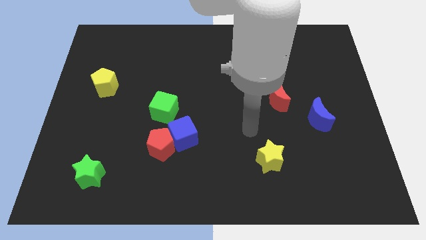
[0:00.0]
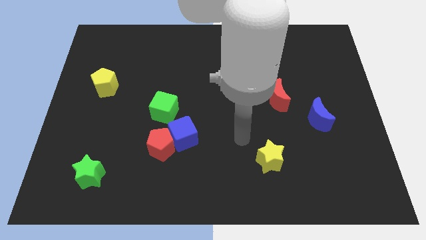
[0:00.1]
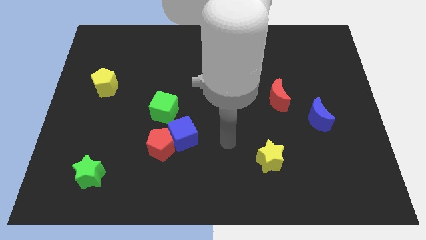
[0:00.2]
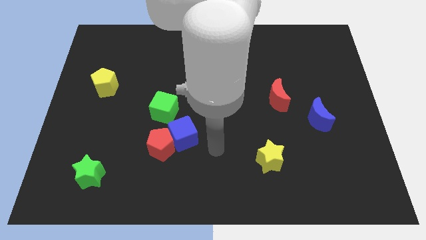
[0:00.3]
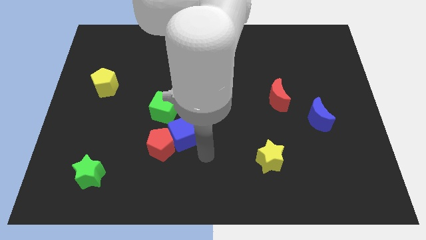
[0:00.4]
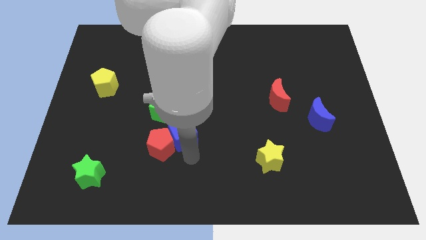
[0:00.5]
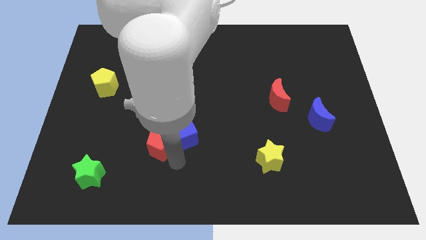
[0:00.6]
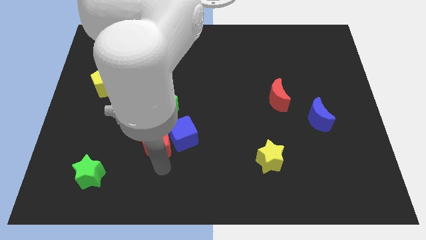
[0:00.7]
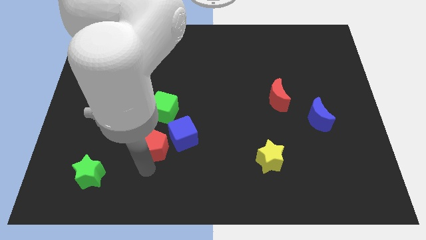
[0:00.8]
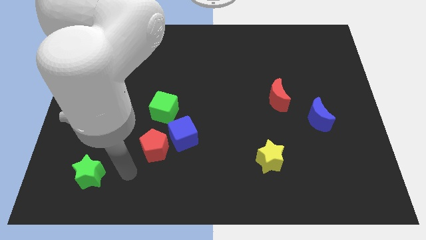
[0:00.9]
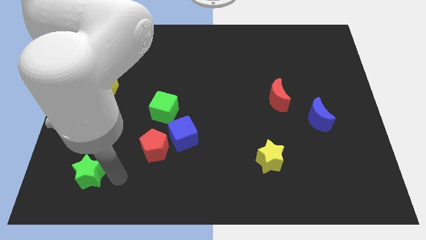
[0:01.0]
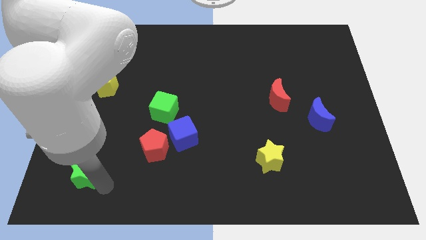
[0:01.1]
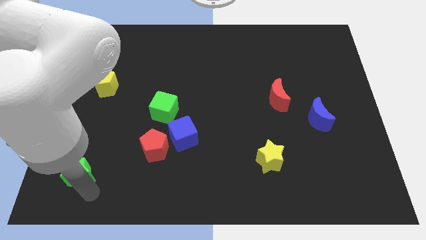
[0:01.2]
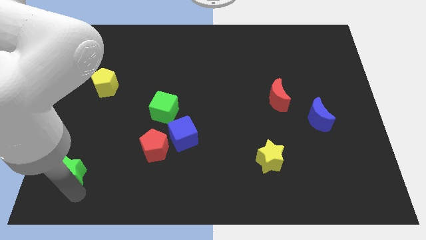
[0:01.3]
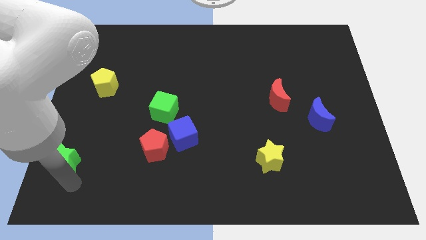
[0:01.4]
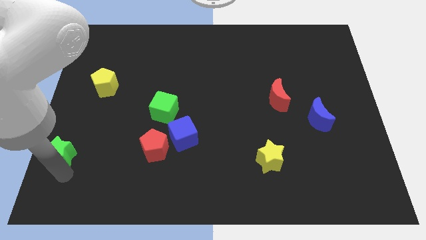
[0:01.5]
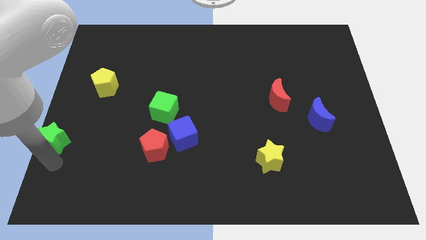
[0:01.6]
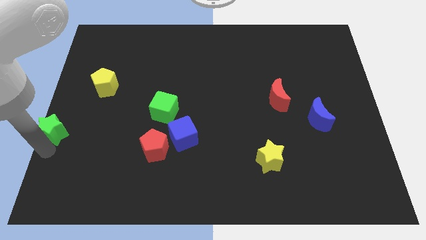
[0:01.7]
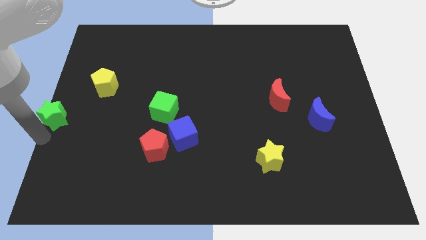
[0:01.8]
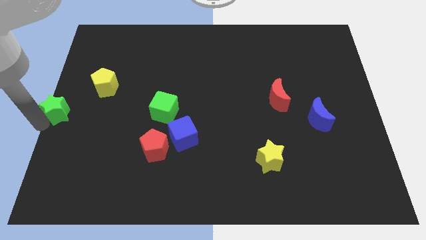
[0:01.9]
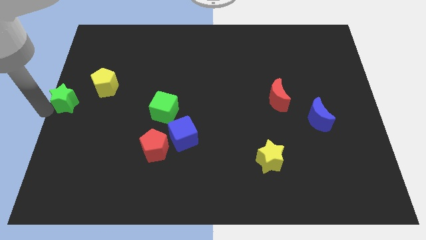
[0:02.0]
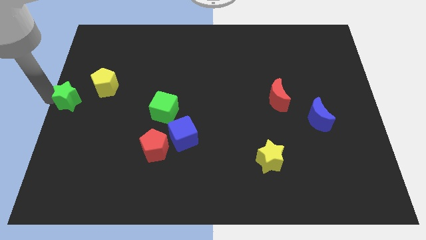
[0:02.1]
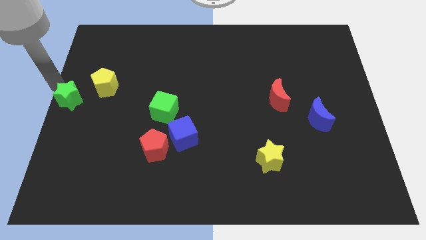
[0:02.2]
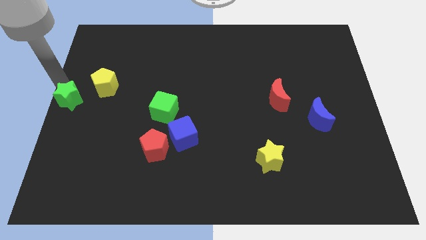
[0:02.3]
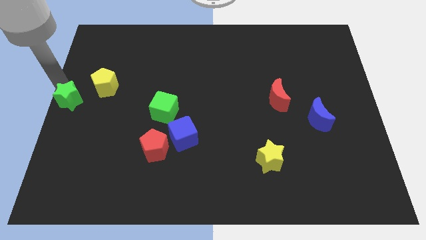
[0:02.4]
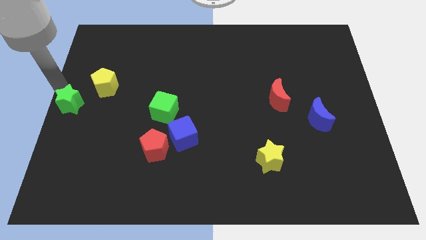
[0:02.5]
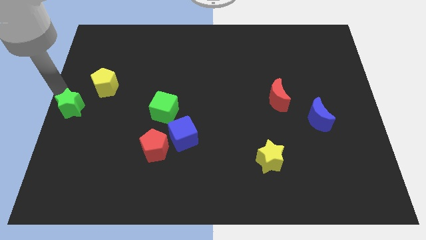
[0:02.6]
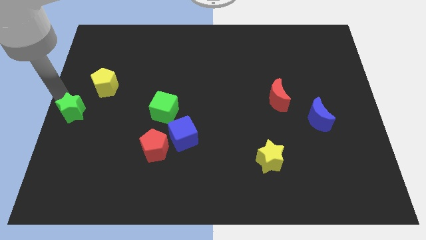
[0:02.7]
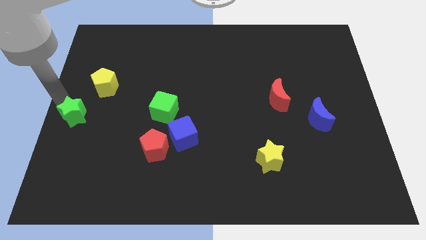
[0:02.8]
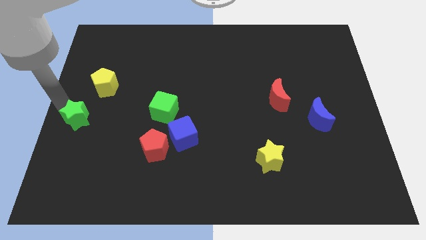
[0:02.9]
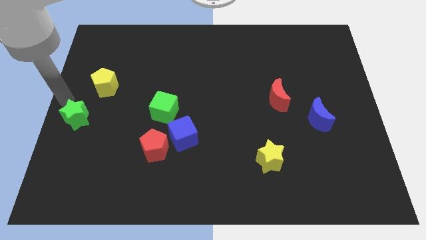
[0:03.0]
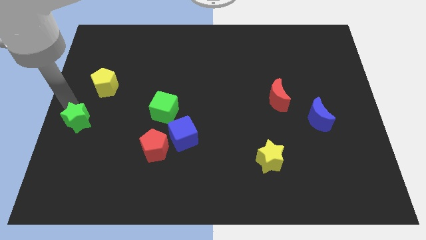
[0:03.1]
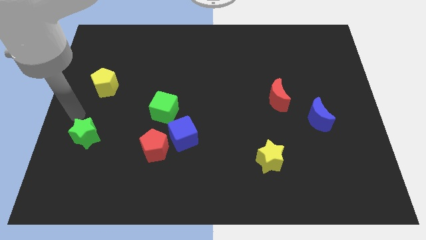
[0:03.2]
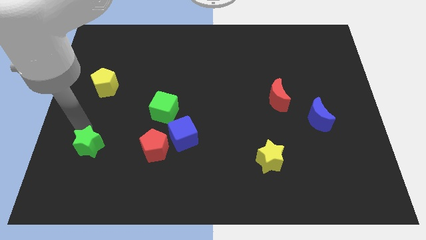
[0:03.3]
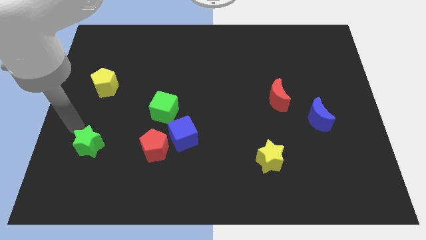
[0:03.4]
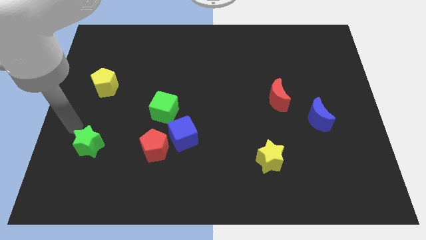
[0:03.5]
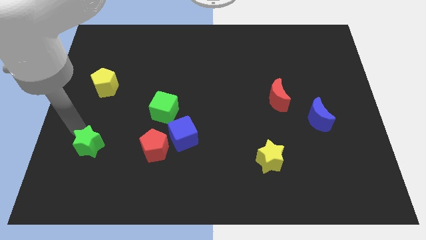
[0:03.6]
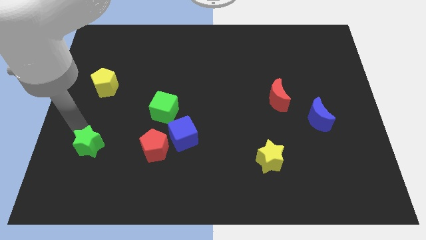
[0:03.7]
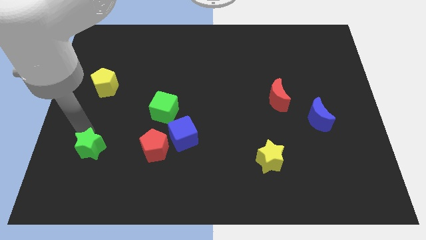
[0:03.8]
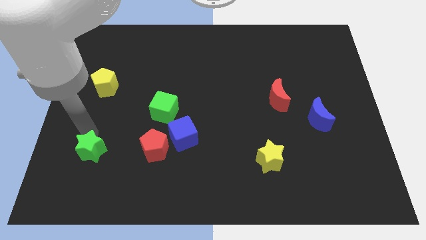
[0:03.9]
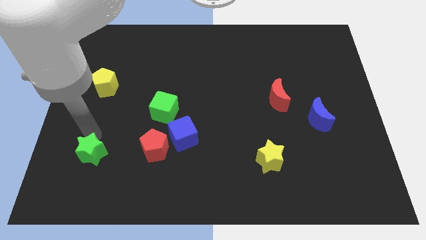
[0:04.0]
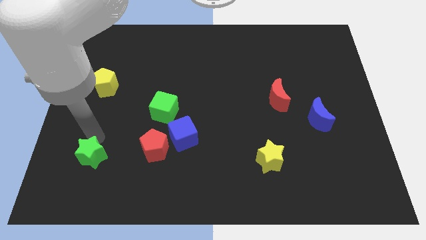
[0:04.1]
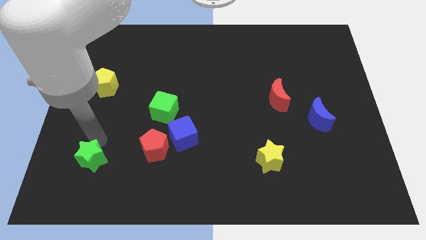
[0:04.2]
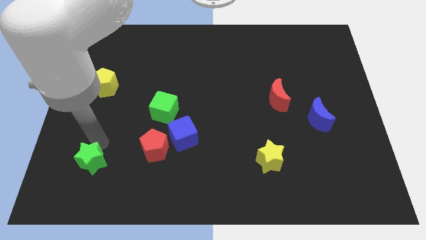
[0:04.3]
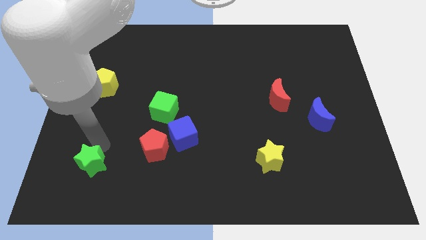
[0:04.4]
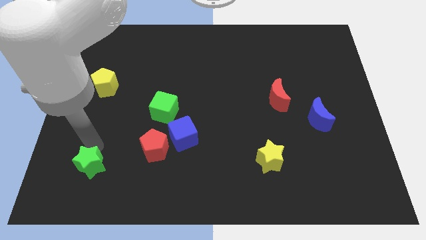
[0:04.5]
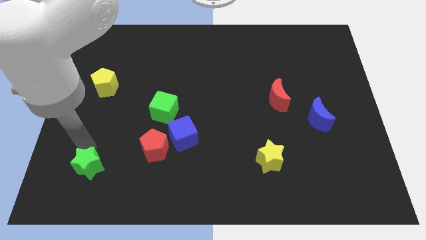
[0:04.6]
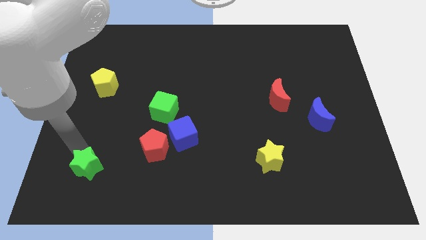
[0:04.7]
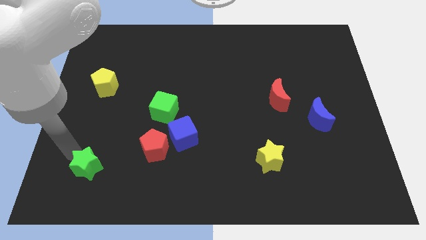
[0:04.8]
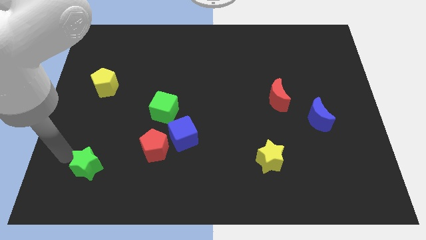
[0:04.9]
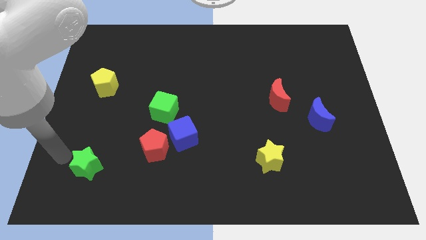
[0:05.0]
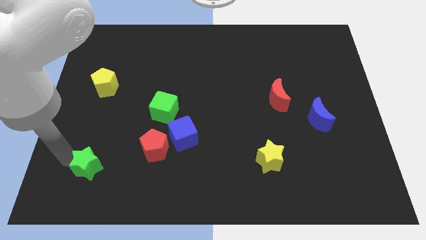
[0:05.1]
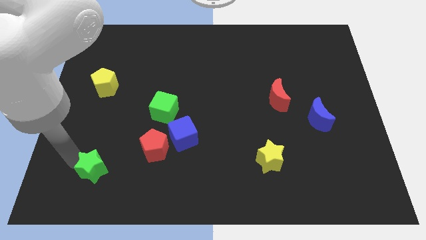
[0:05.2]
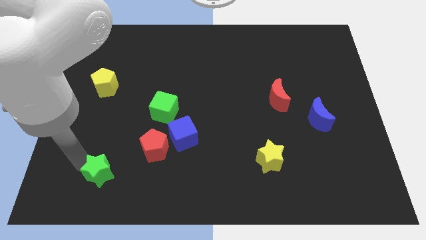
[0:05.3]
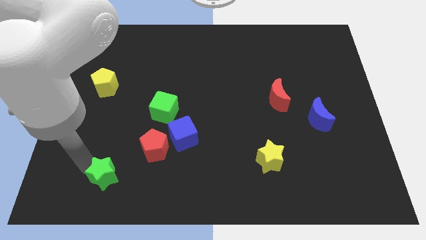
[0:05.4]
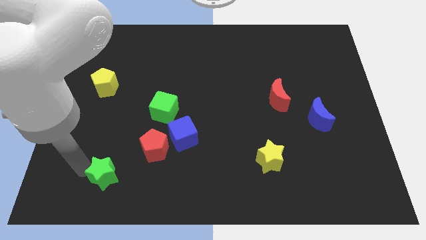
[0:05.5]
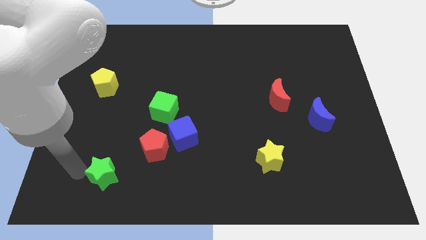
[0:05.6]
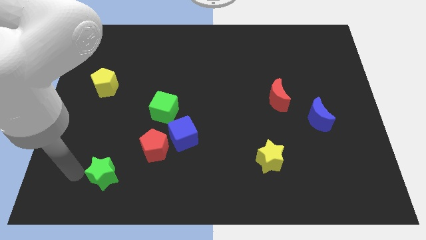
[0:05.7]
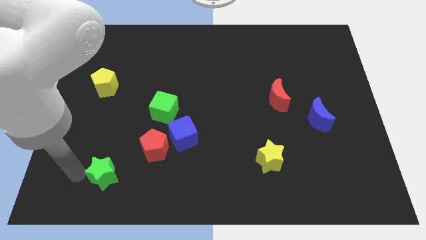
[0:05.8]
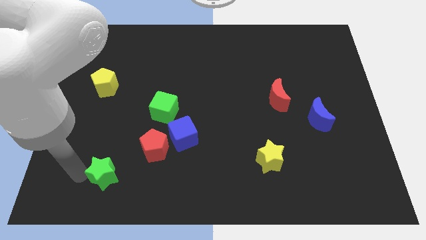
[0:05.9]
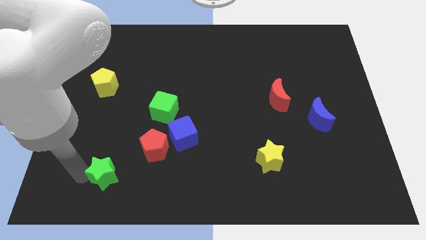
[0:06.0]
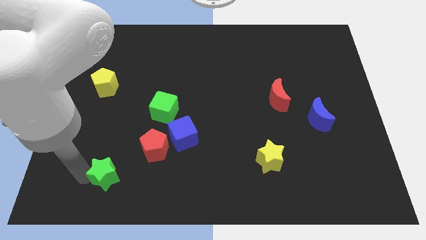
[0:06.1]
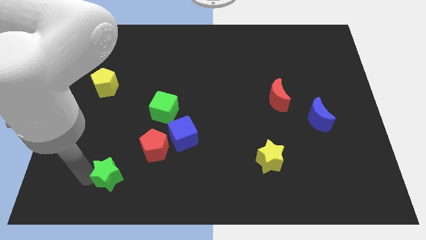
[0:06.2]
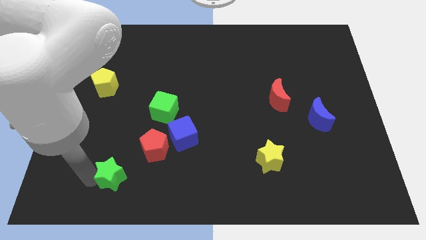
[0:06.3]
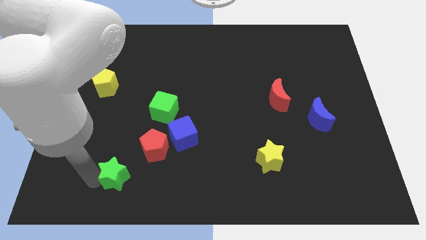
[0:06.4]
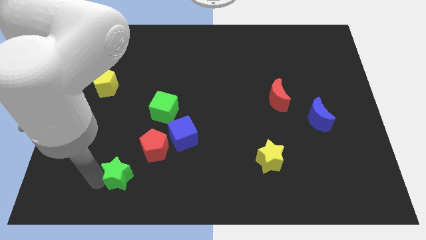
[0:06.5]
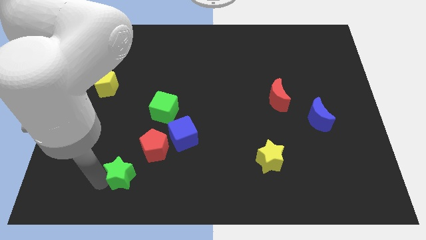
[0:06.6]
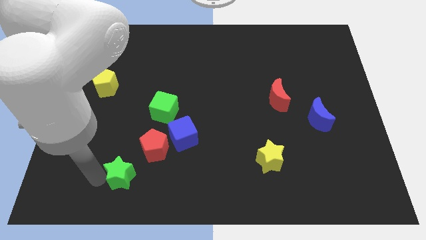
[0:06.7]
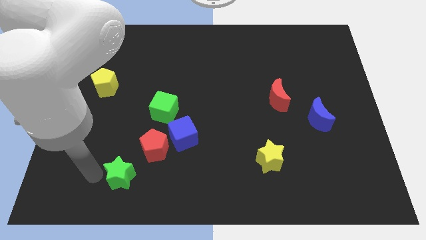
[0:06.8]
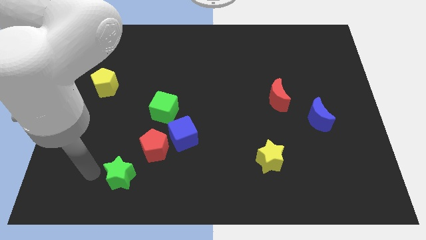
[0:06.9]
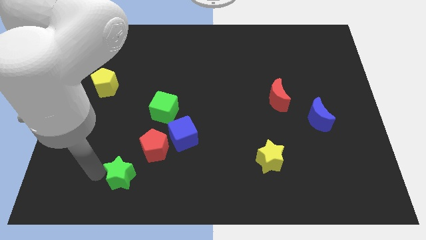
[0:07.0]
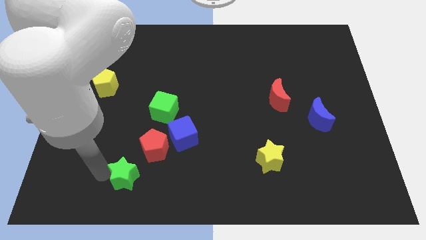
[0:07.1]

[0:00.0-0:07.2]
push the green star a bit right

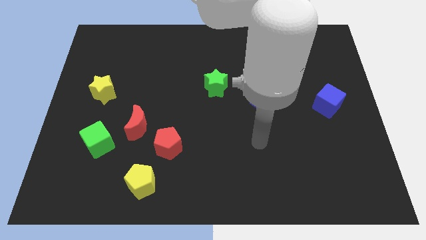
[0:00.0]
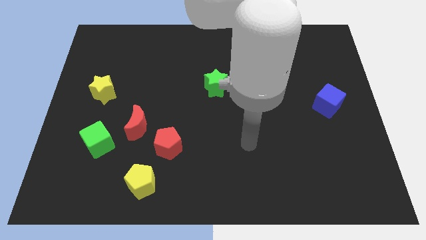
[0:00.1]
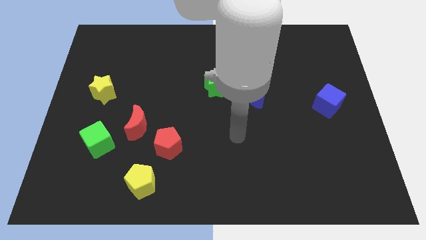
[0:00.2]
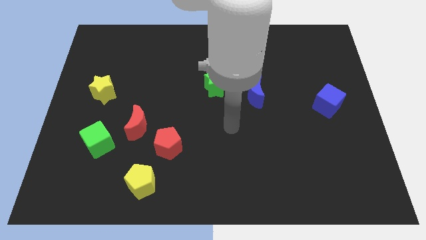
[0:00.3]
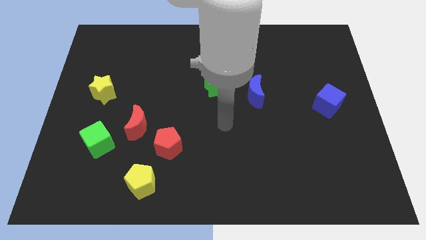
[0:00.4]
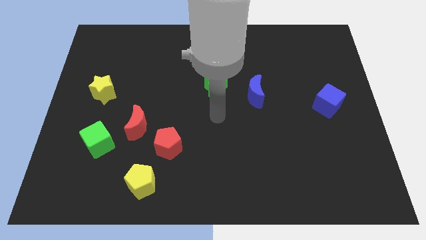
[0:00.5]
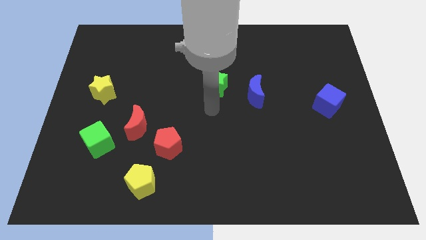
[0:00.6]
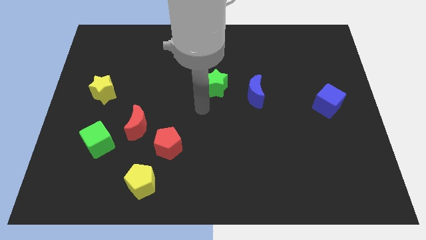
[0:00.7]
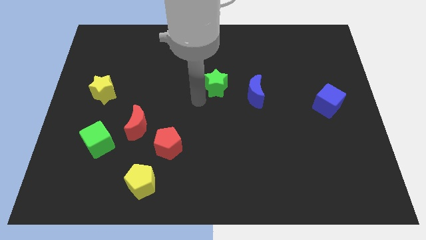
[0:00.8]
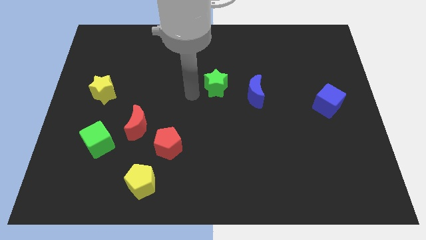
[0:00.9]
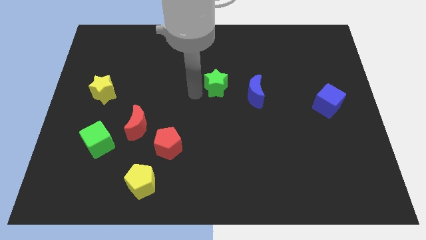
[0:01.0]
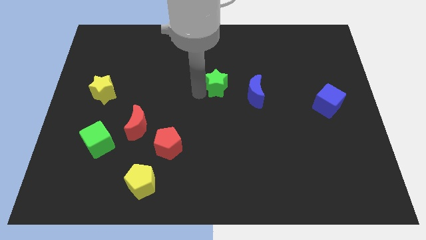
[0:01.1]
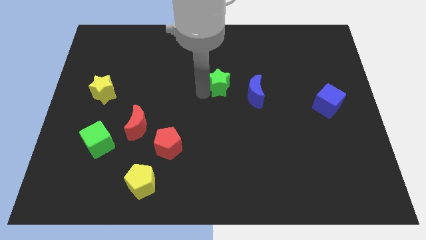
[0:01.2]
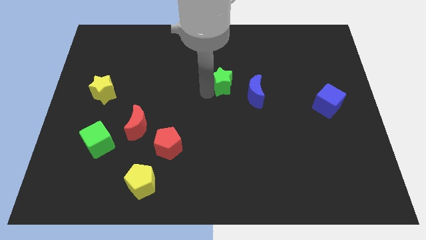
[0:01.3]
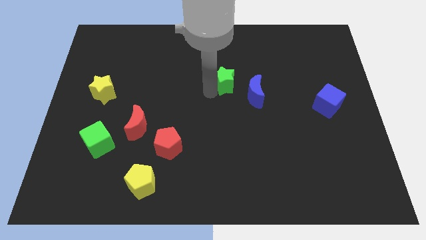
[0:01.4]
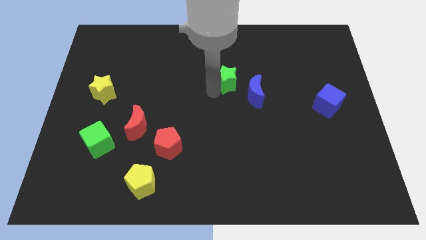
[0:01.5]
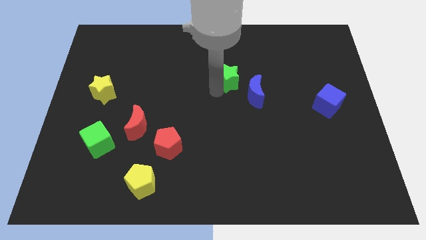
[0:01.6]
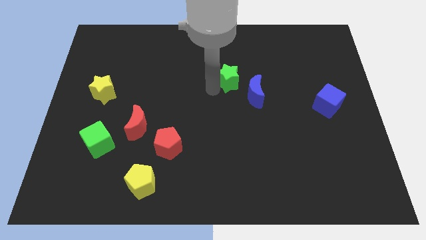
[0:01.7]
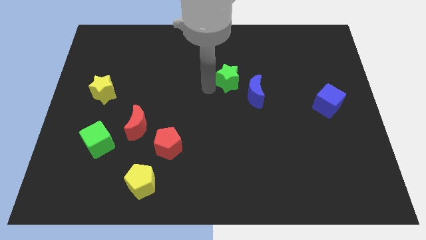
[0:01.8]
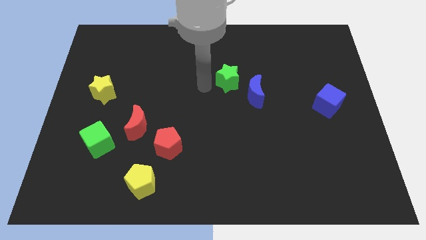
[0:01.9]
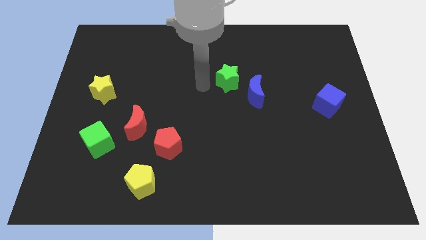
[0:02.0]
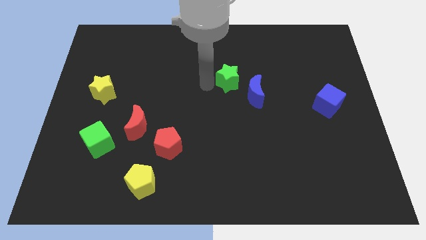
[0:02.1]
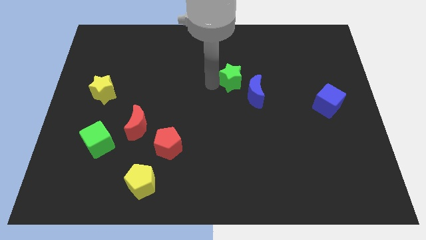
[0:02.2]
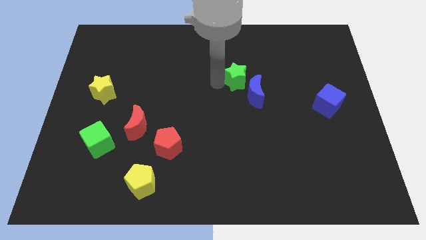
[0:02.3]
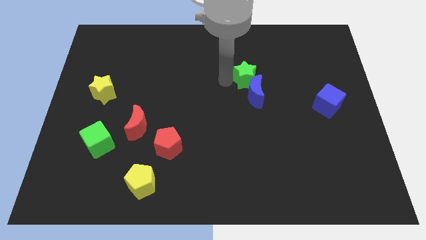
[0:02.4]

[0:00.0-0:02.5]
move the green star somewhat right
